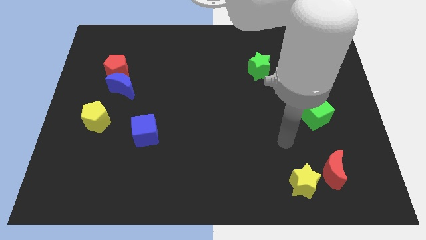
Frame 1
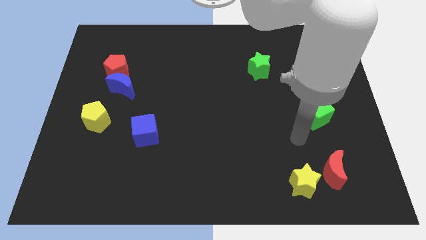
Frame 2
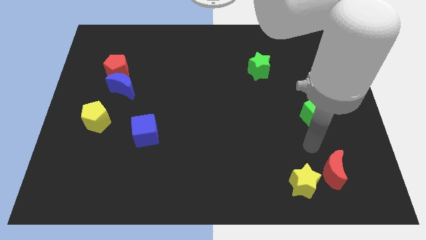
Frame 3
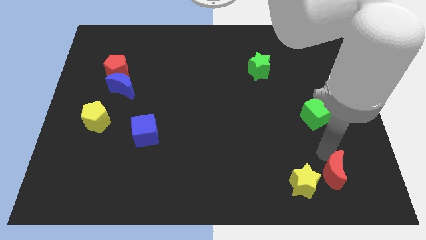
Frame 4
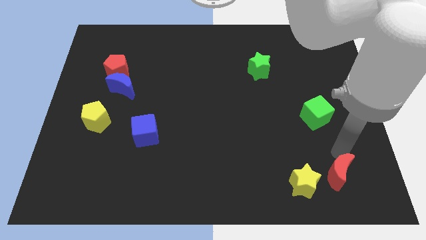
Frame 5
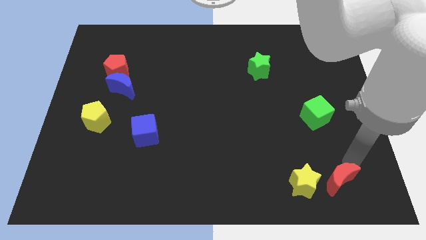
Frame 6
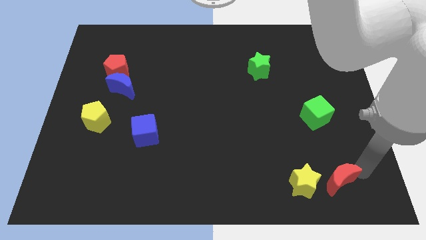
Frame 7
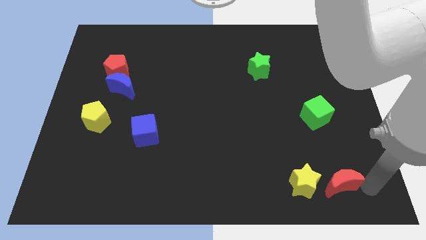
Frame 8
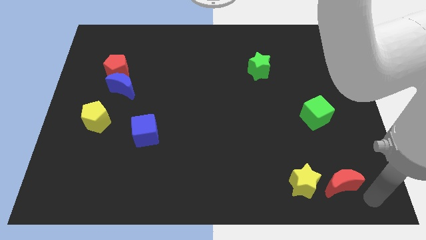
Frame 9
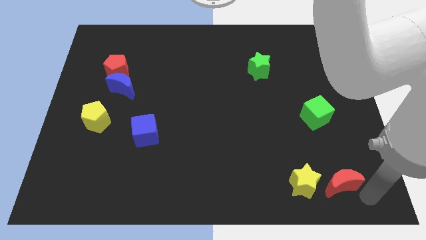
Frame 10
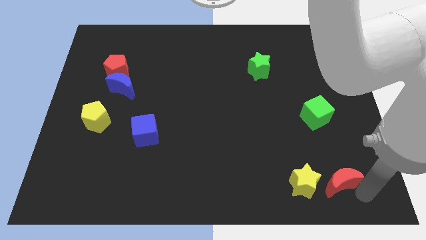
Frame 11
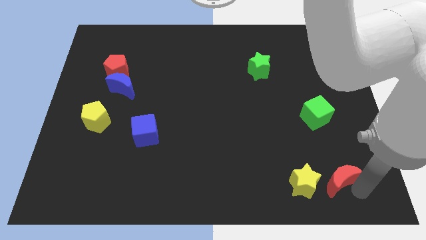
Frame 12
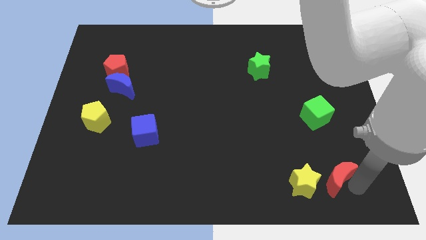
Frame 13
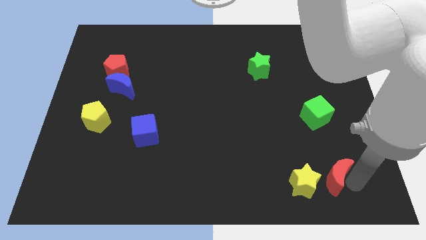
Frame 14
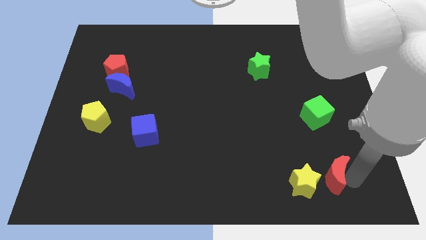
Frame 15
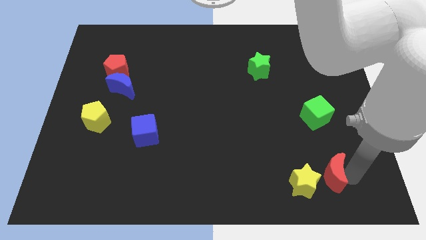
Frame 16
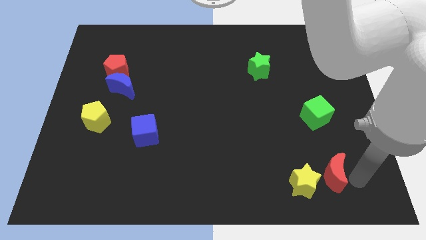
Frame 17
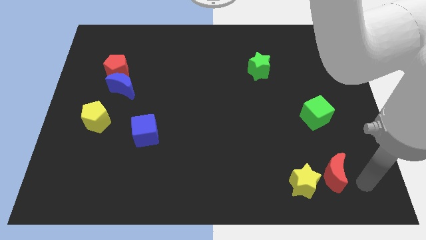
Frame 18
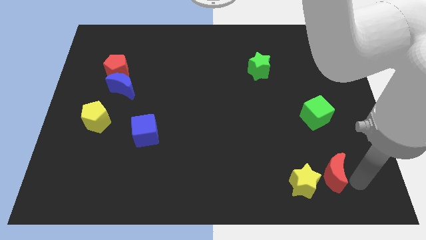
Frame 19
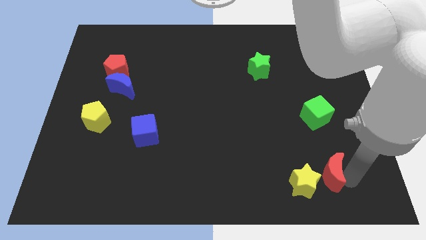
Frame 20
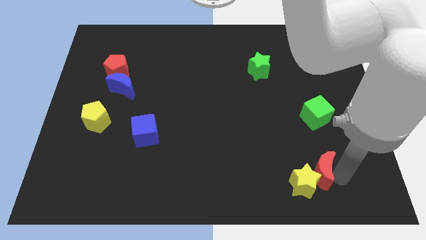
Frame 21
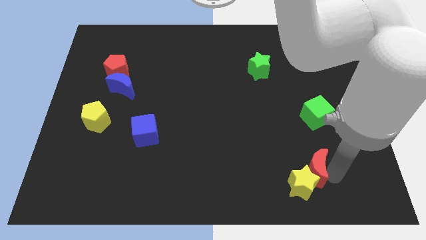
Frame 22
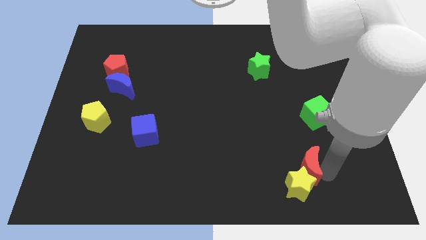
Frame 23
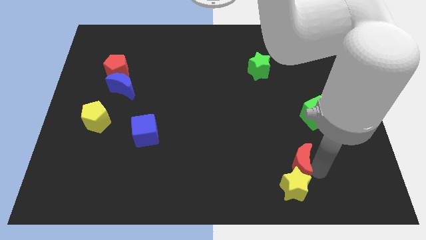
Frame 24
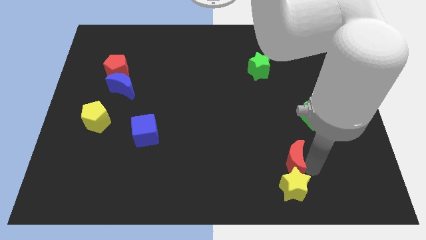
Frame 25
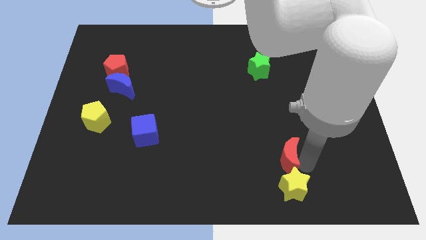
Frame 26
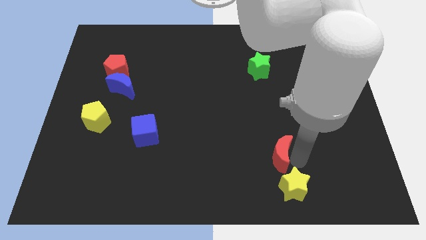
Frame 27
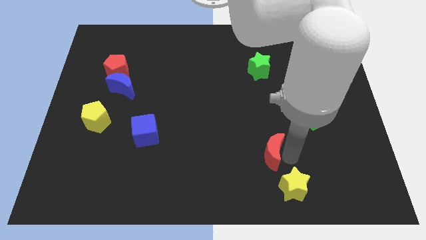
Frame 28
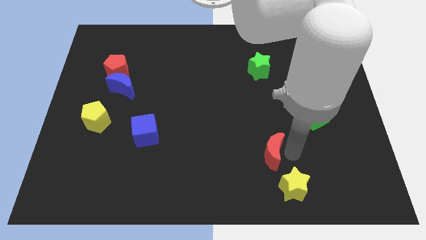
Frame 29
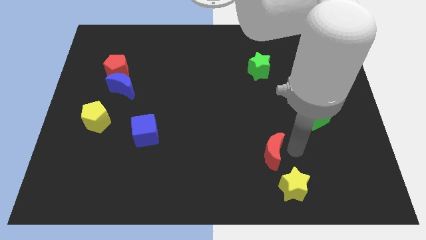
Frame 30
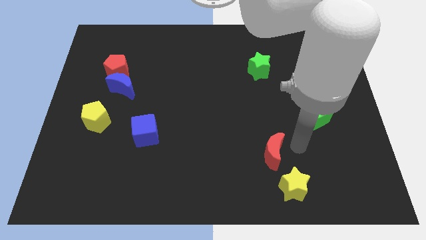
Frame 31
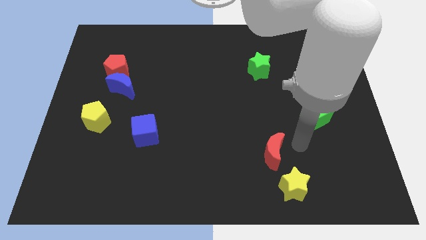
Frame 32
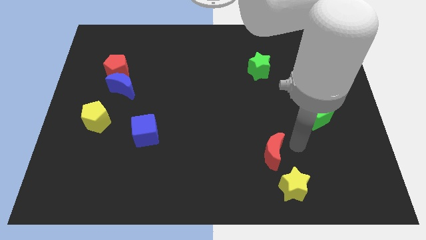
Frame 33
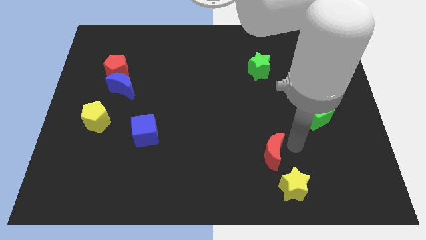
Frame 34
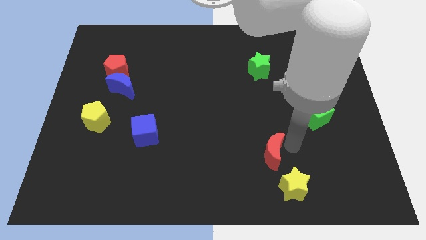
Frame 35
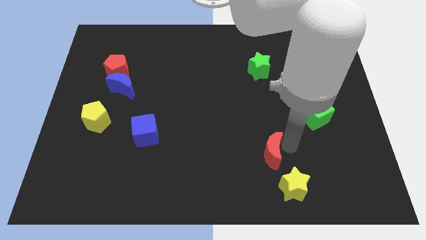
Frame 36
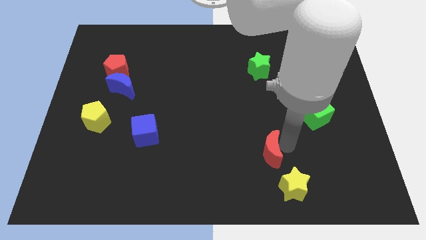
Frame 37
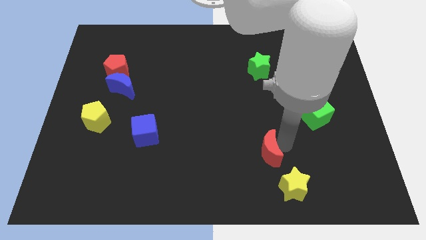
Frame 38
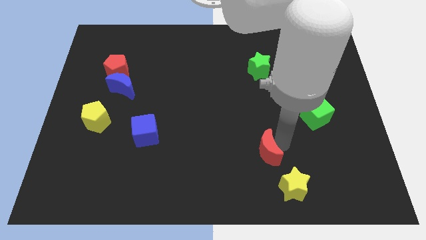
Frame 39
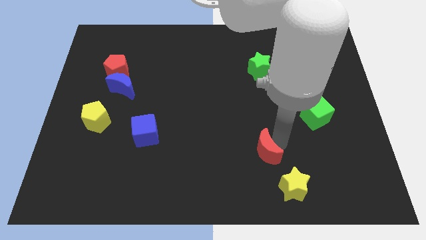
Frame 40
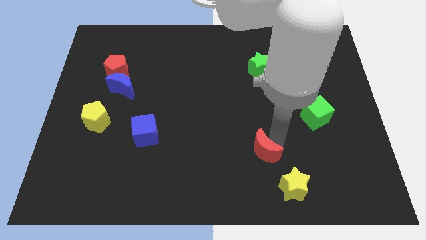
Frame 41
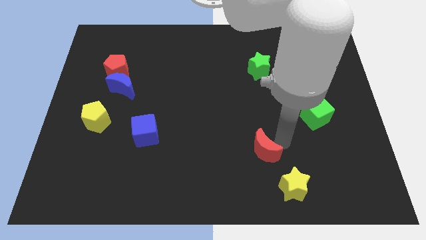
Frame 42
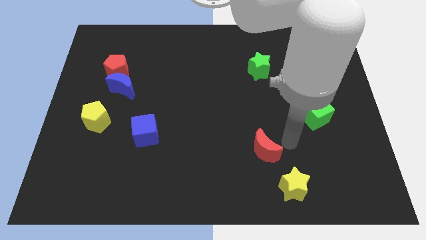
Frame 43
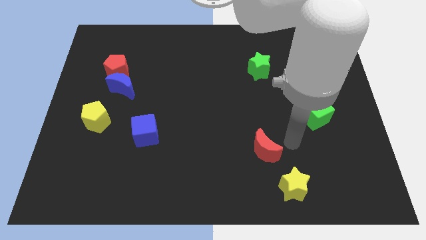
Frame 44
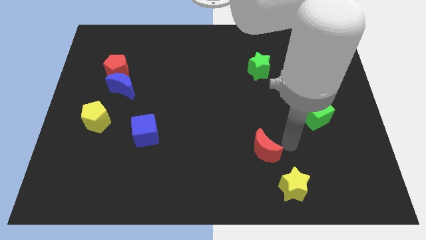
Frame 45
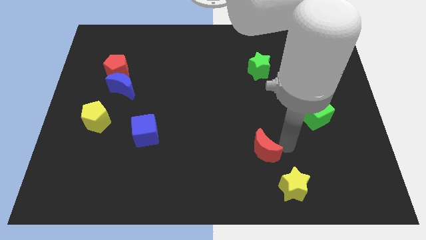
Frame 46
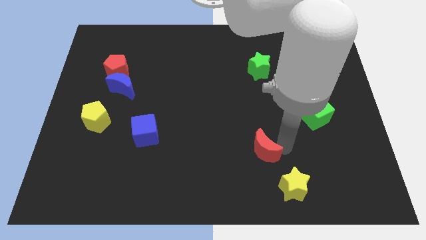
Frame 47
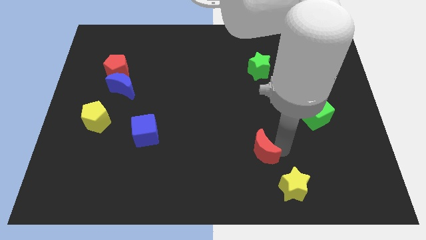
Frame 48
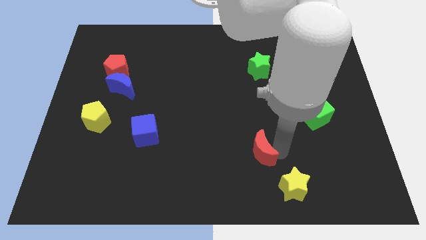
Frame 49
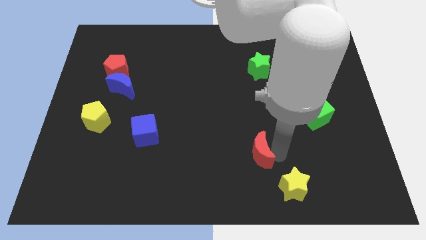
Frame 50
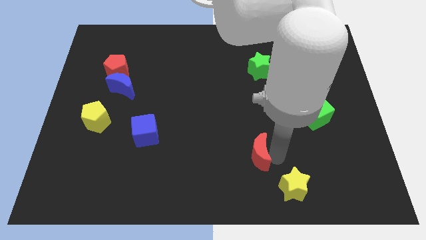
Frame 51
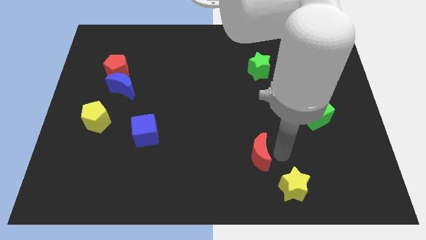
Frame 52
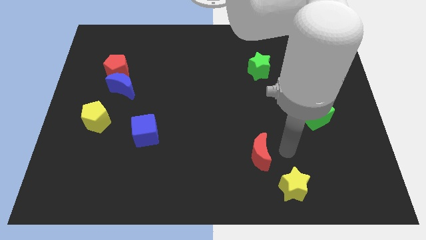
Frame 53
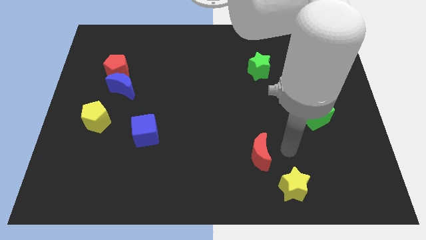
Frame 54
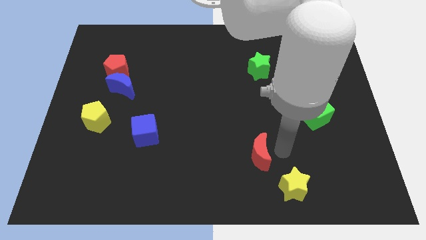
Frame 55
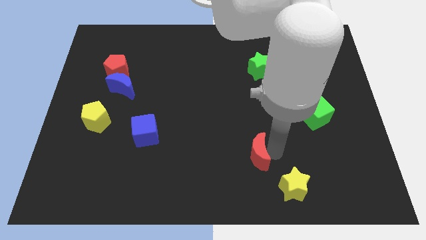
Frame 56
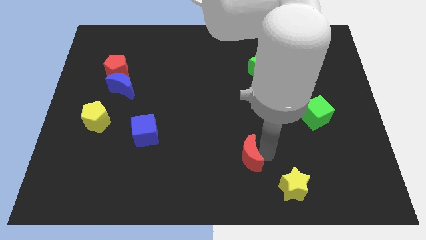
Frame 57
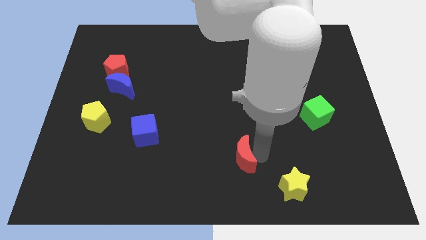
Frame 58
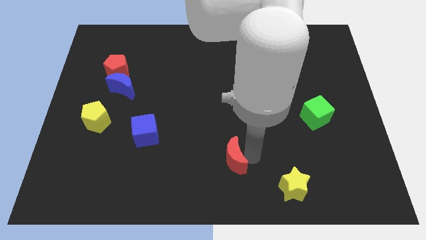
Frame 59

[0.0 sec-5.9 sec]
slide the red moon to the left

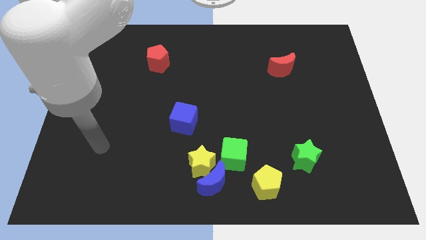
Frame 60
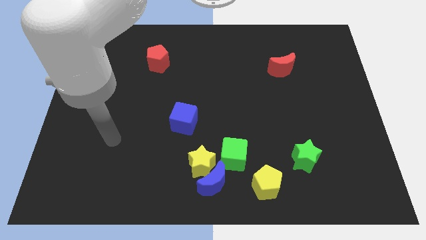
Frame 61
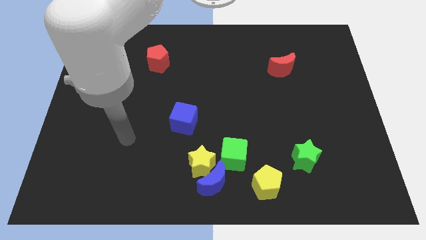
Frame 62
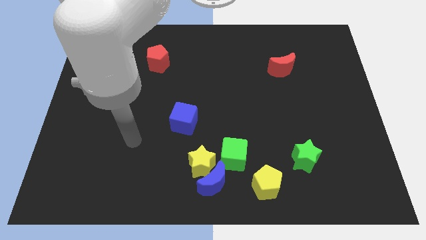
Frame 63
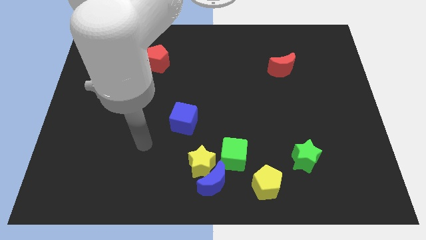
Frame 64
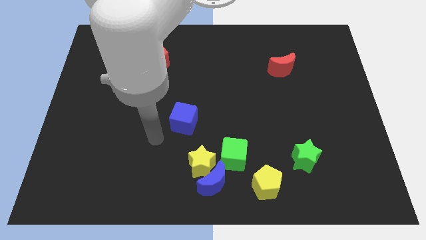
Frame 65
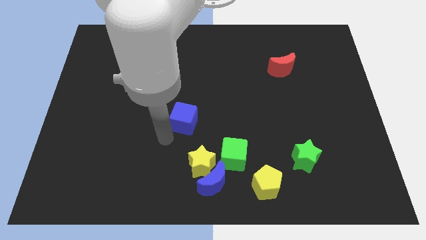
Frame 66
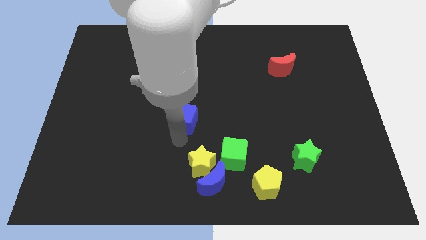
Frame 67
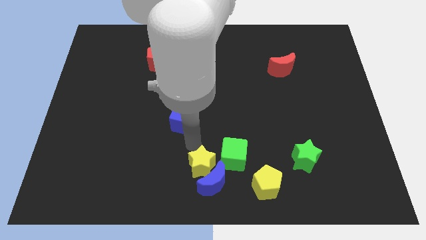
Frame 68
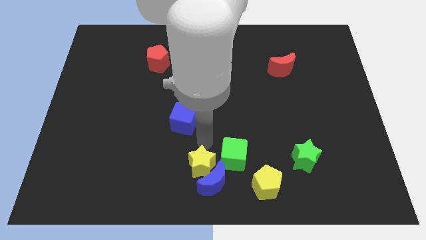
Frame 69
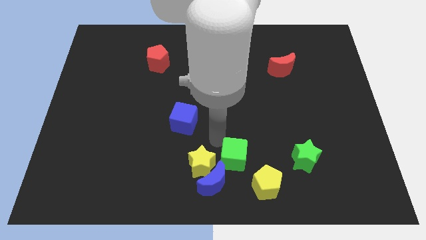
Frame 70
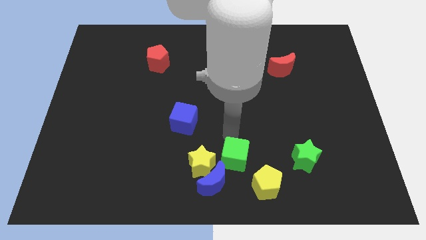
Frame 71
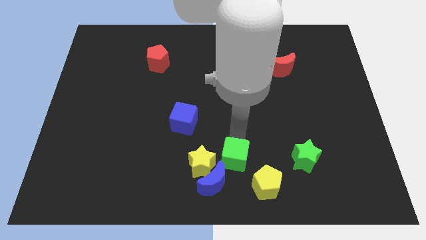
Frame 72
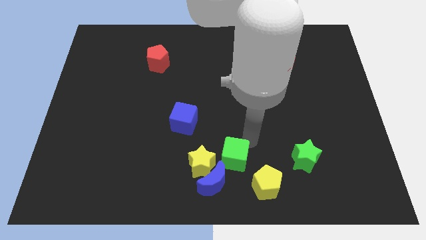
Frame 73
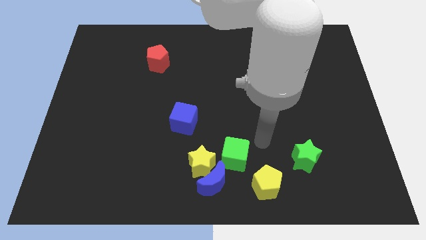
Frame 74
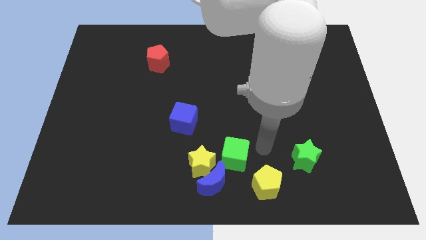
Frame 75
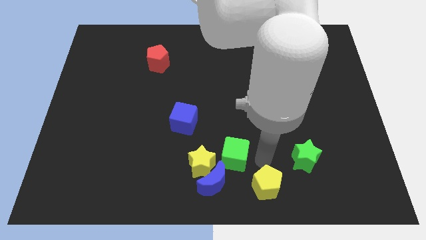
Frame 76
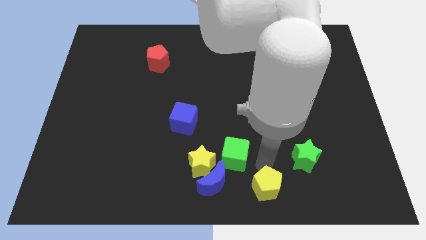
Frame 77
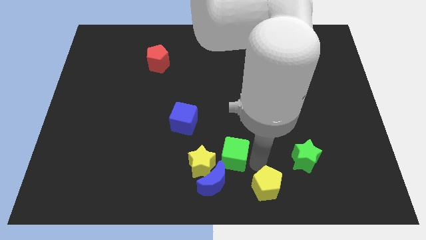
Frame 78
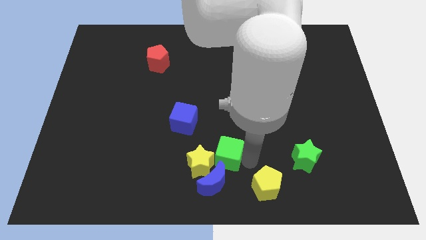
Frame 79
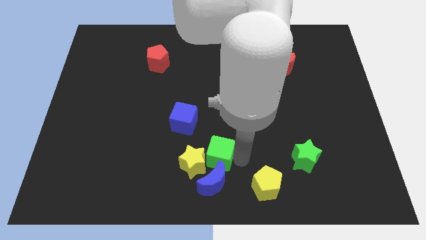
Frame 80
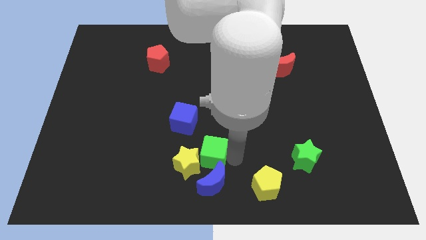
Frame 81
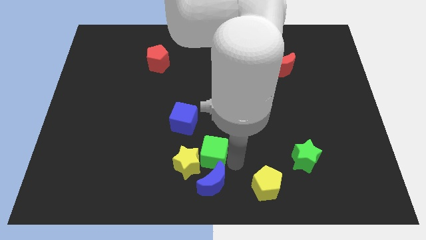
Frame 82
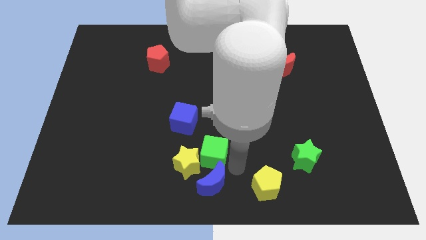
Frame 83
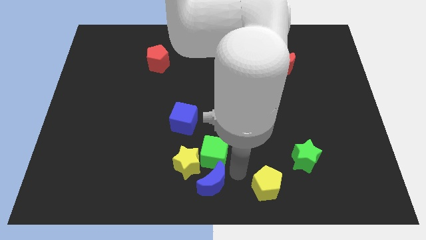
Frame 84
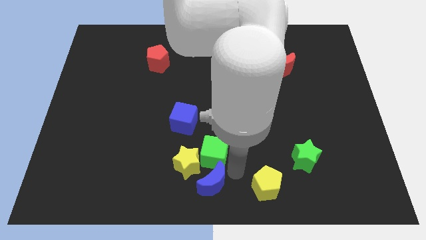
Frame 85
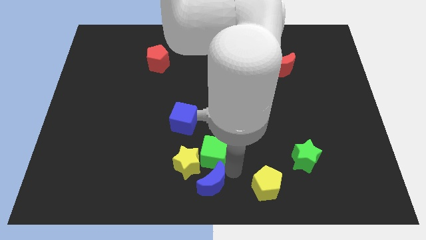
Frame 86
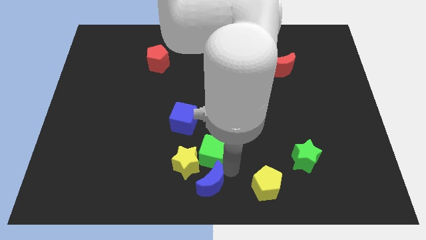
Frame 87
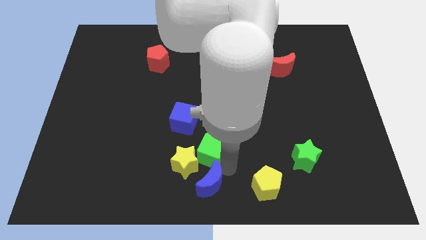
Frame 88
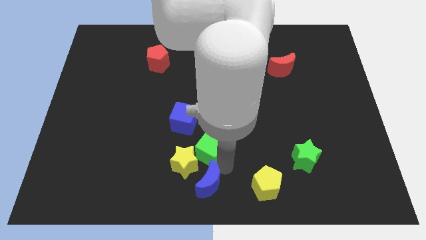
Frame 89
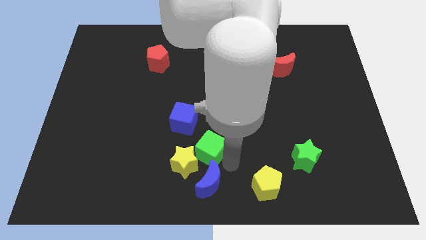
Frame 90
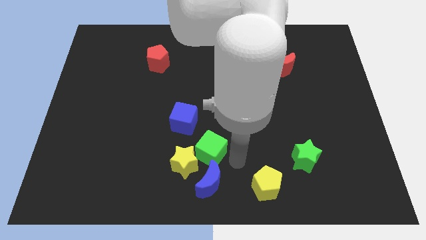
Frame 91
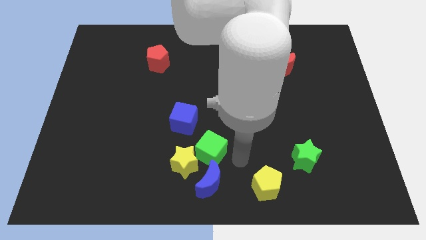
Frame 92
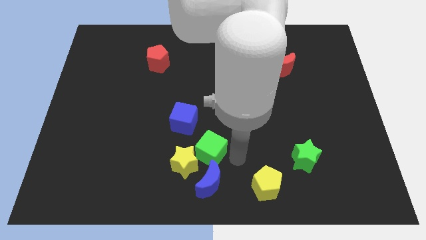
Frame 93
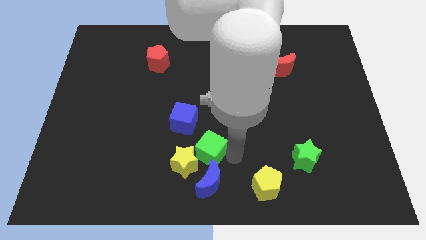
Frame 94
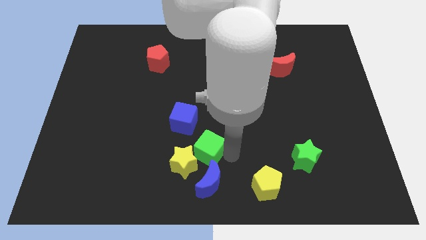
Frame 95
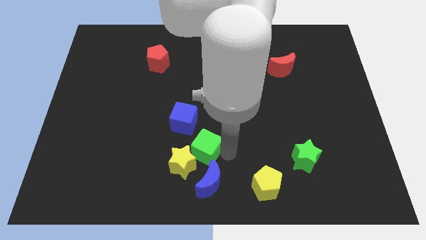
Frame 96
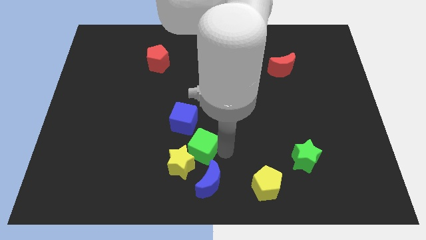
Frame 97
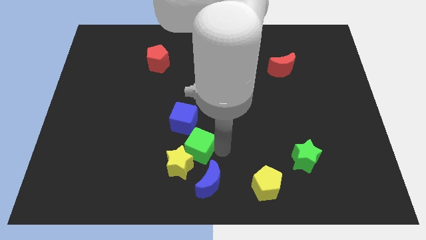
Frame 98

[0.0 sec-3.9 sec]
slightly slide the green cube left
